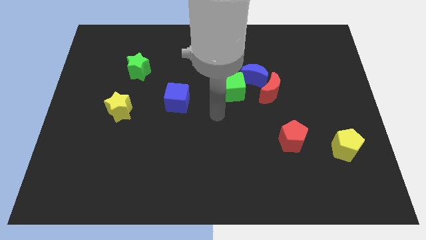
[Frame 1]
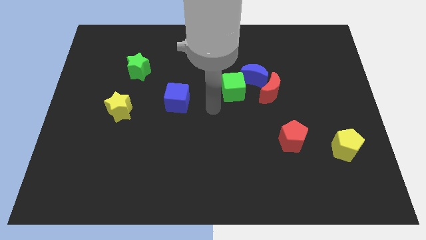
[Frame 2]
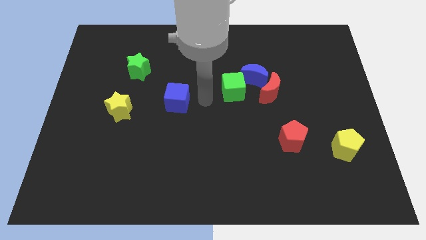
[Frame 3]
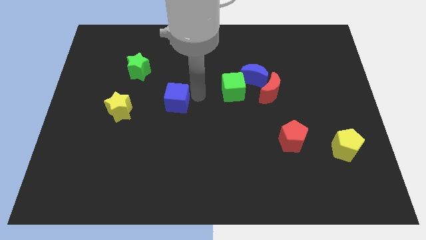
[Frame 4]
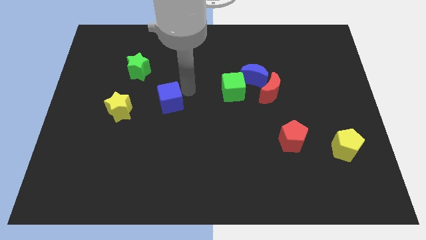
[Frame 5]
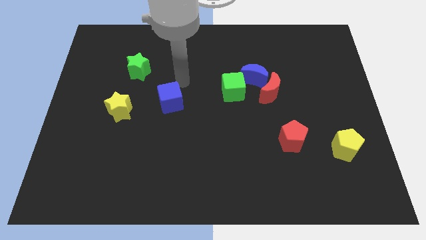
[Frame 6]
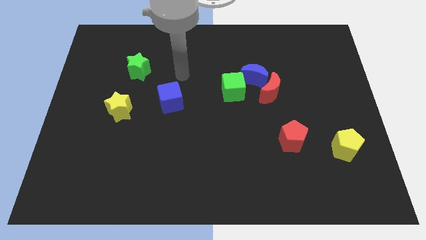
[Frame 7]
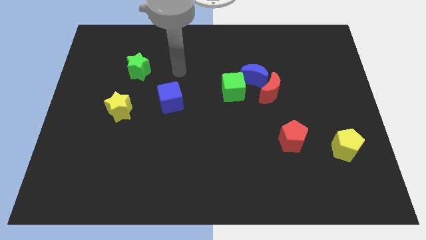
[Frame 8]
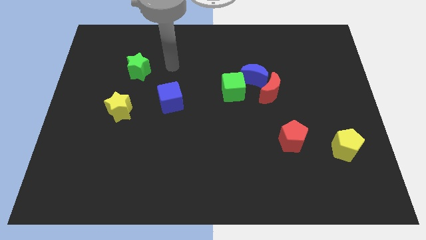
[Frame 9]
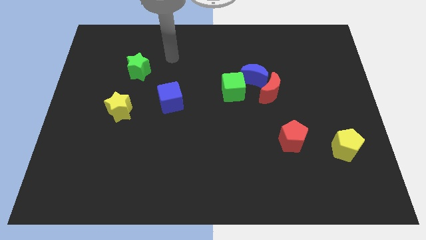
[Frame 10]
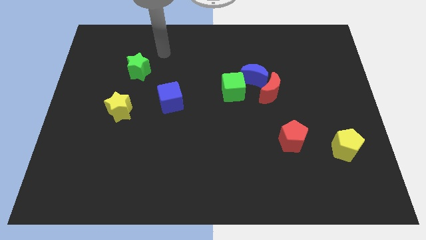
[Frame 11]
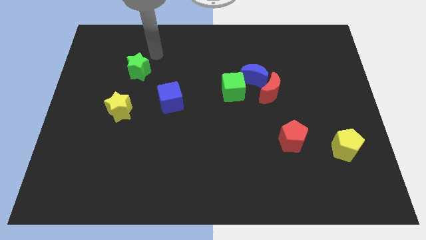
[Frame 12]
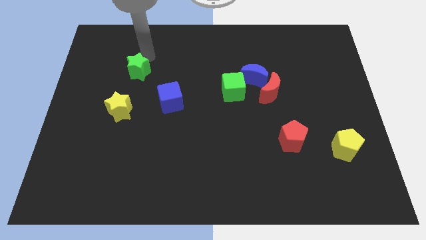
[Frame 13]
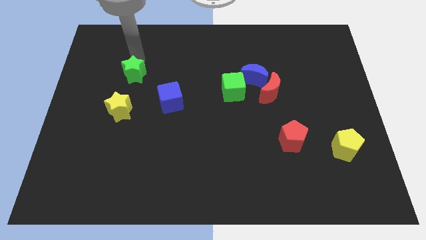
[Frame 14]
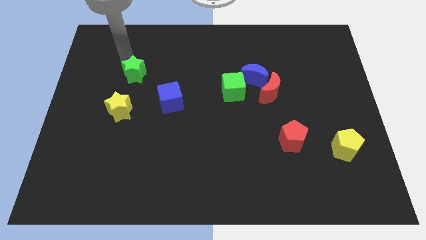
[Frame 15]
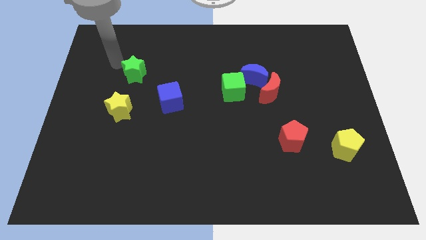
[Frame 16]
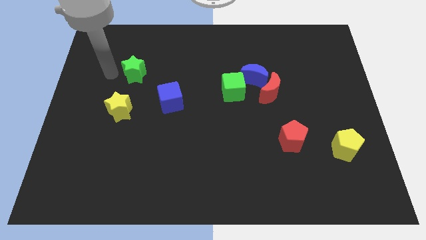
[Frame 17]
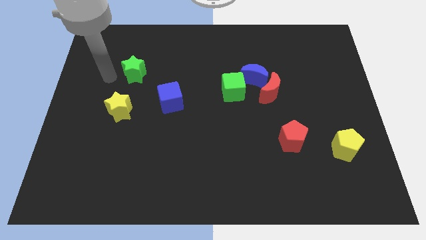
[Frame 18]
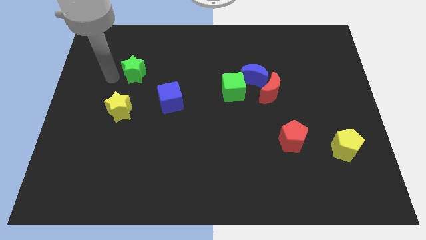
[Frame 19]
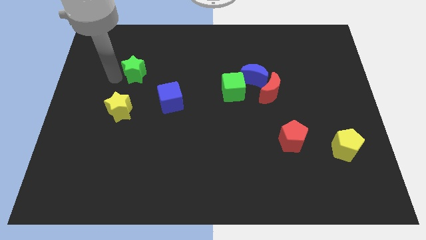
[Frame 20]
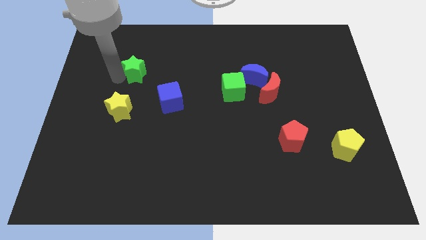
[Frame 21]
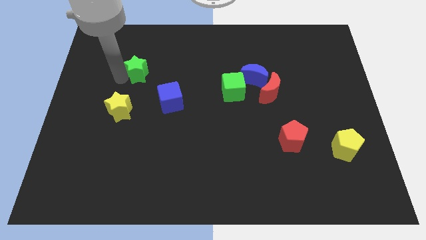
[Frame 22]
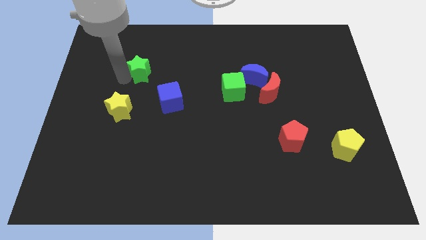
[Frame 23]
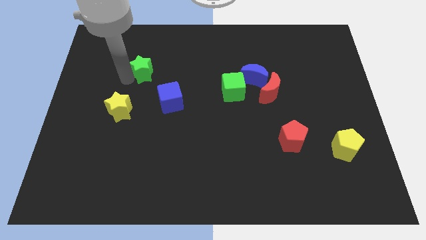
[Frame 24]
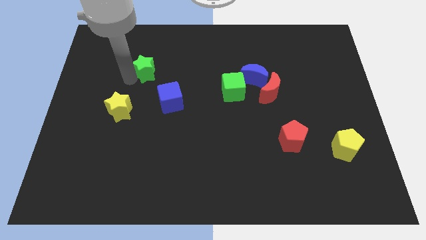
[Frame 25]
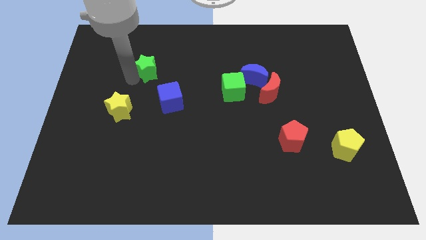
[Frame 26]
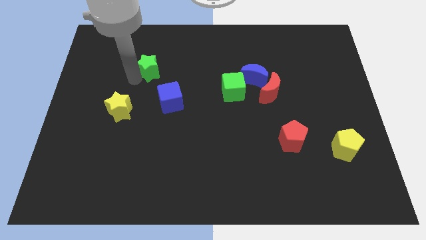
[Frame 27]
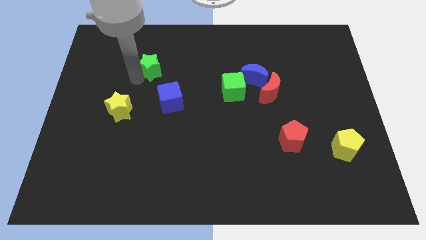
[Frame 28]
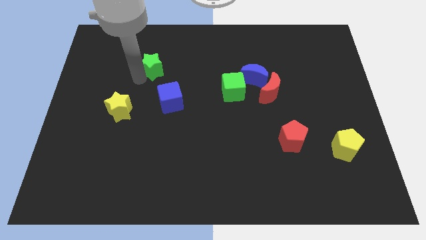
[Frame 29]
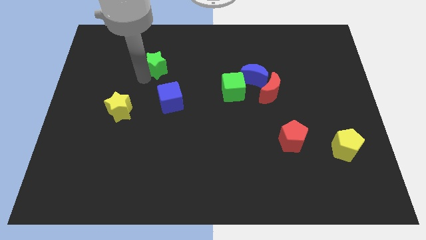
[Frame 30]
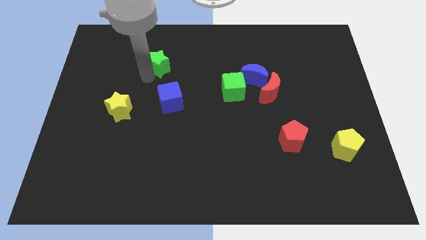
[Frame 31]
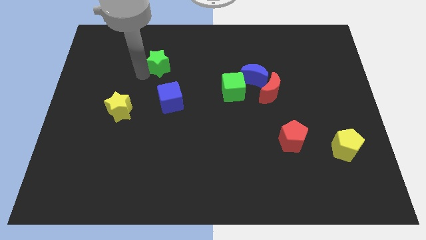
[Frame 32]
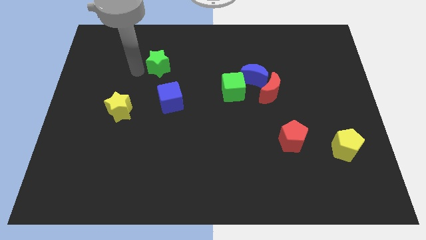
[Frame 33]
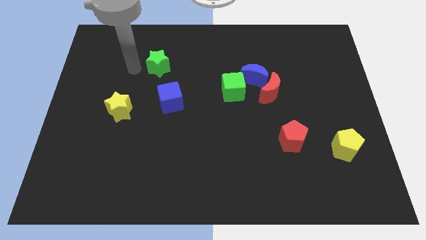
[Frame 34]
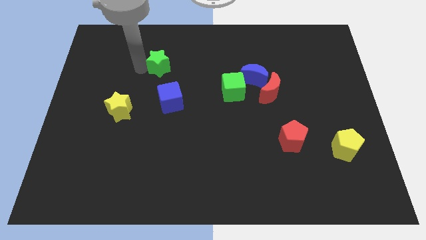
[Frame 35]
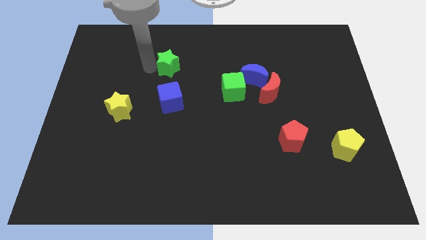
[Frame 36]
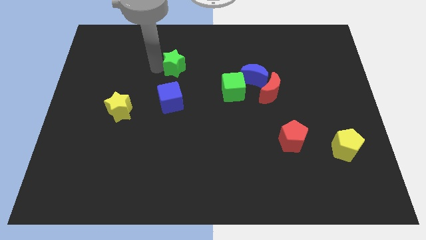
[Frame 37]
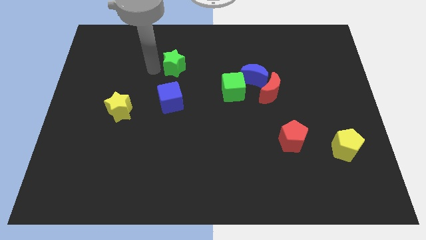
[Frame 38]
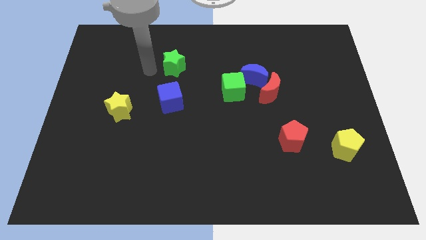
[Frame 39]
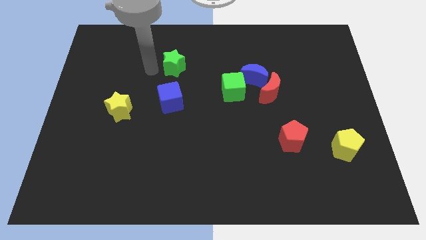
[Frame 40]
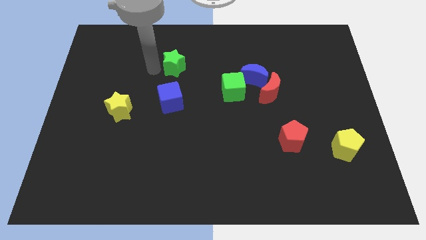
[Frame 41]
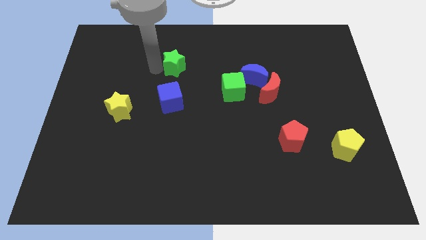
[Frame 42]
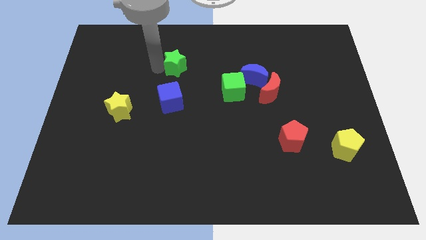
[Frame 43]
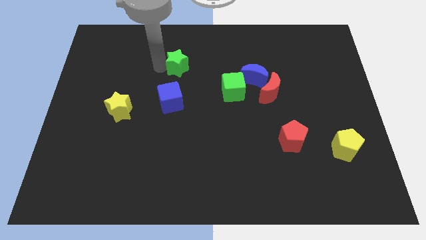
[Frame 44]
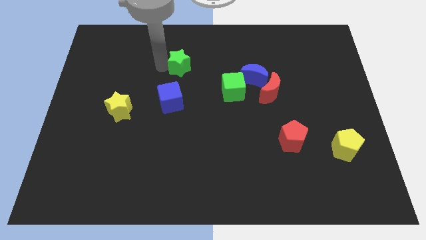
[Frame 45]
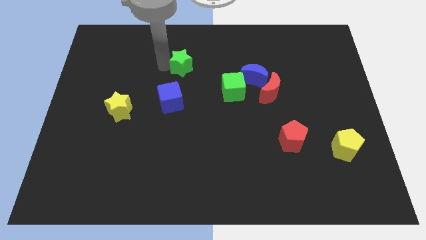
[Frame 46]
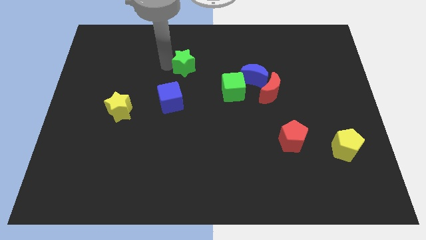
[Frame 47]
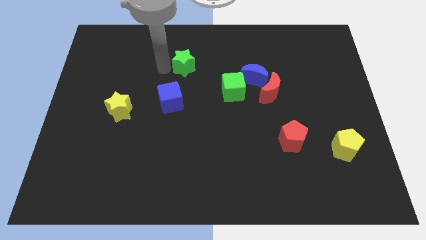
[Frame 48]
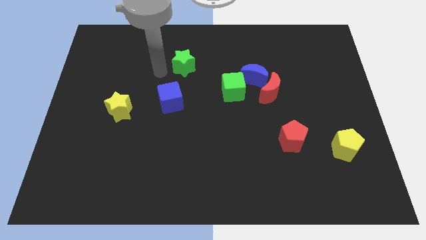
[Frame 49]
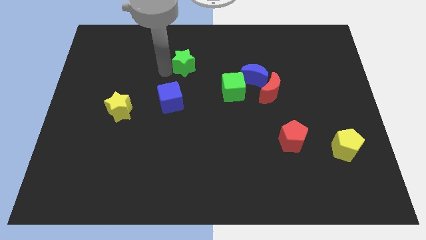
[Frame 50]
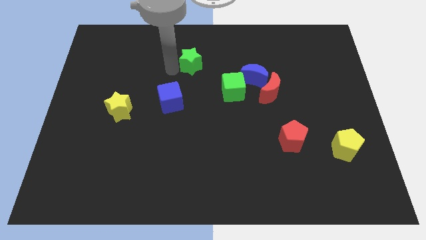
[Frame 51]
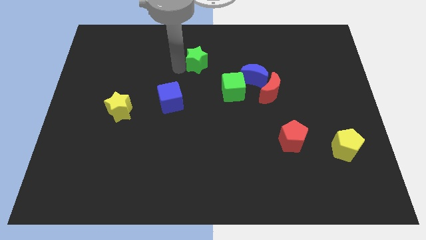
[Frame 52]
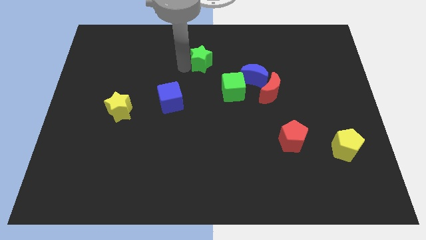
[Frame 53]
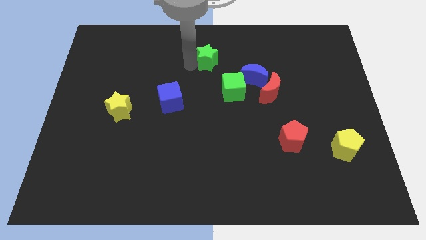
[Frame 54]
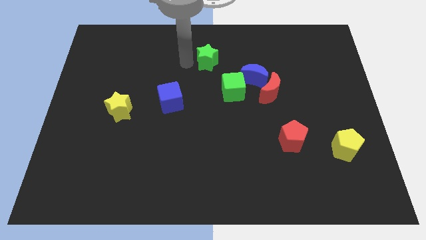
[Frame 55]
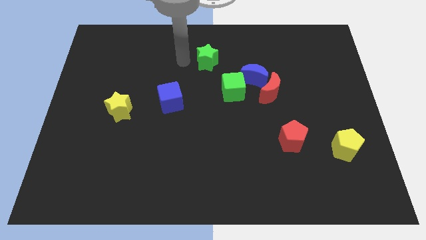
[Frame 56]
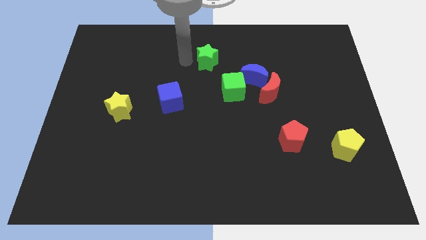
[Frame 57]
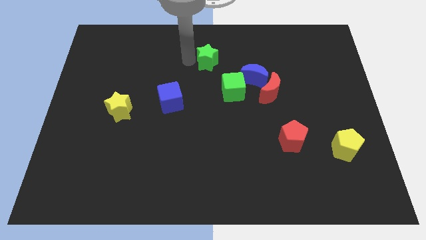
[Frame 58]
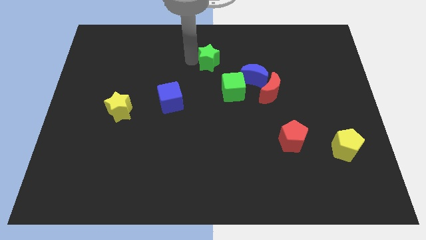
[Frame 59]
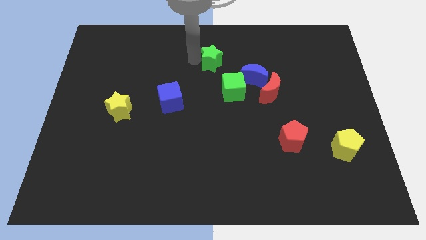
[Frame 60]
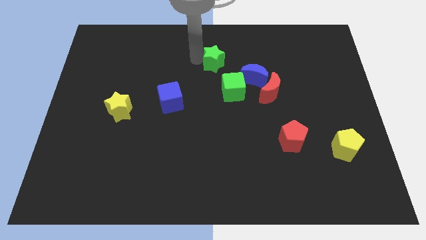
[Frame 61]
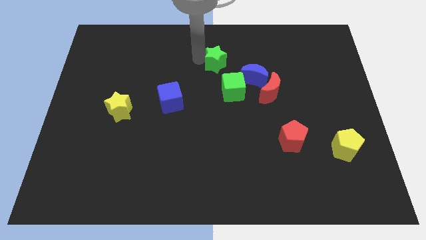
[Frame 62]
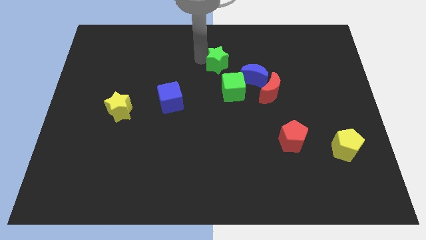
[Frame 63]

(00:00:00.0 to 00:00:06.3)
move the green star to the right

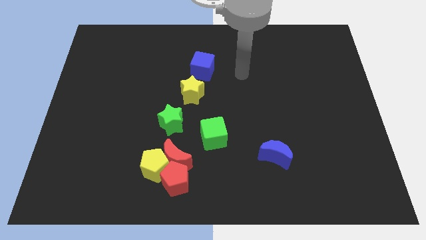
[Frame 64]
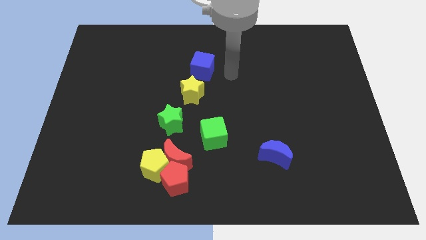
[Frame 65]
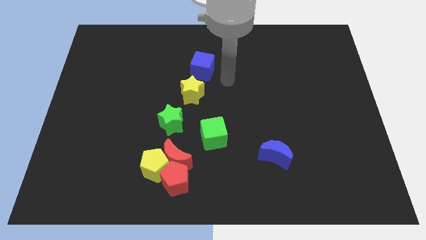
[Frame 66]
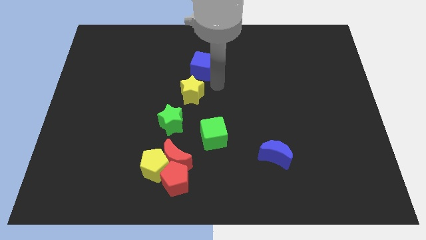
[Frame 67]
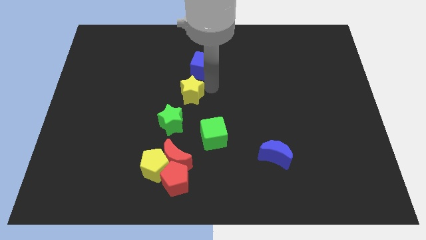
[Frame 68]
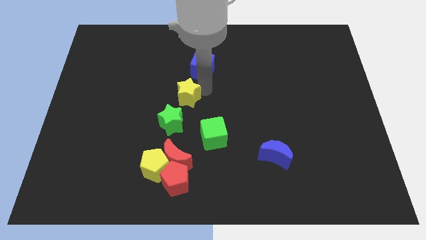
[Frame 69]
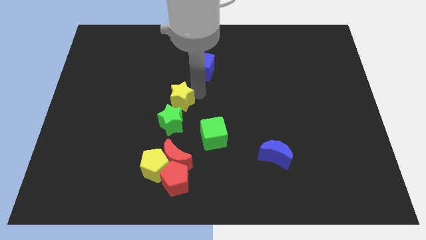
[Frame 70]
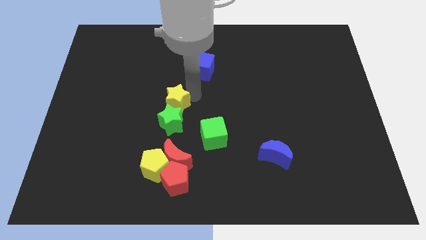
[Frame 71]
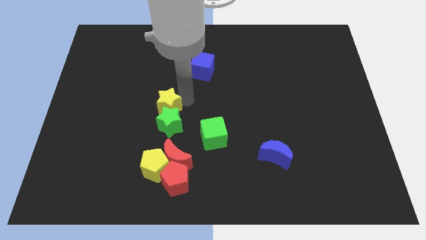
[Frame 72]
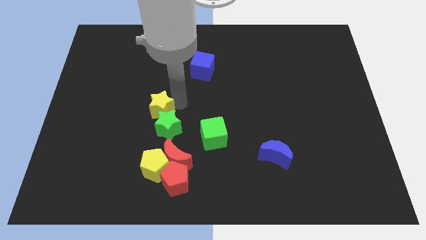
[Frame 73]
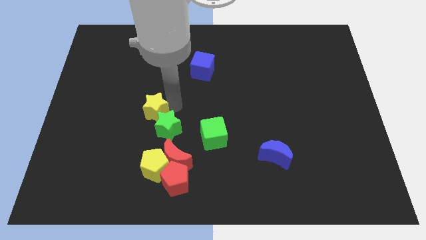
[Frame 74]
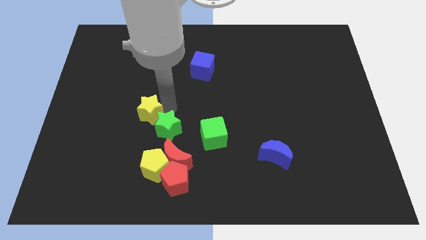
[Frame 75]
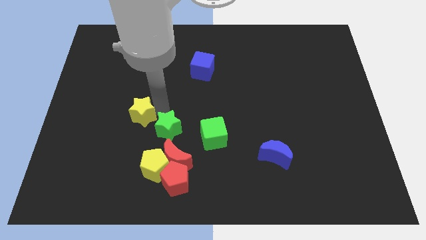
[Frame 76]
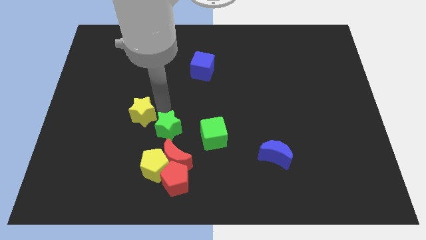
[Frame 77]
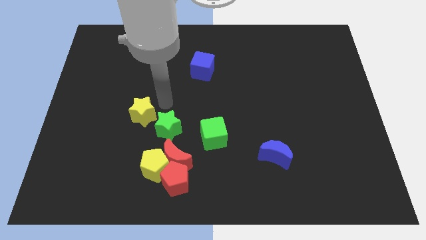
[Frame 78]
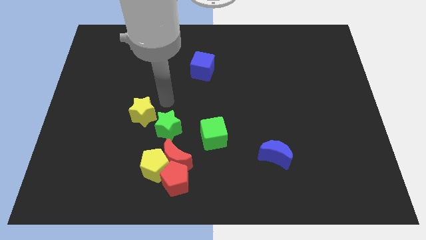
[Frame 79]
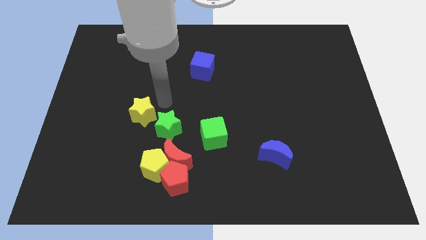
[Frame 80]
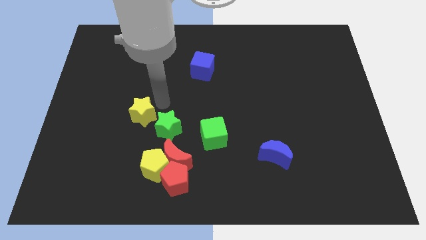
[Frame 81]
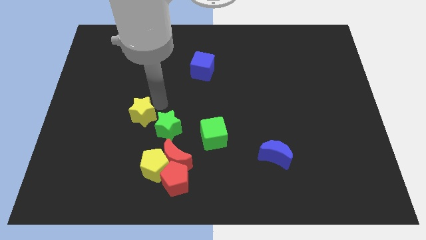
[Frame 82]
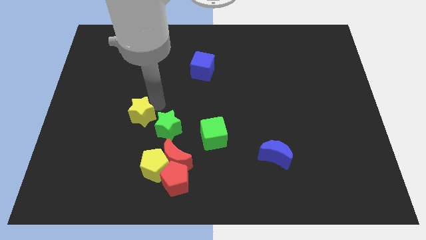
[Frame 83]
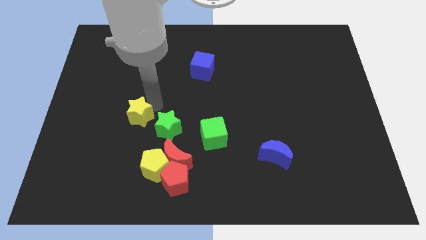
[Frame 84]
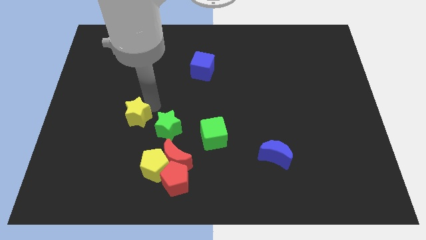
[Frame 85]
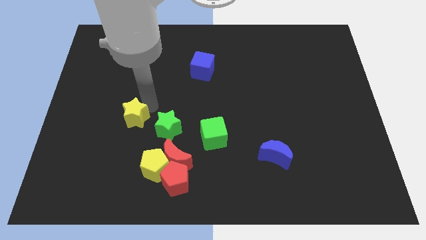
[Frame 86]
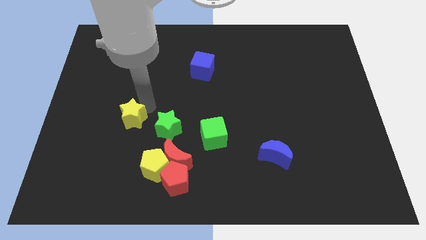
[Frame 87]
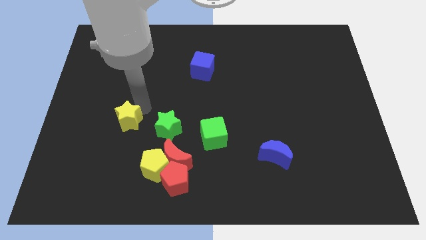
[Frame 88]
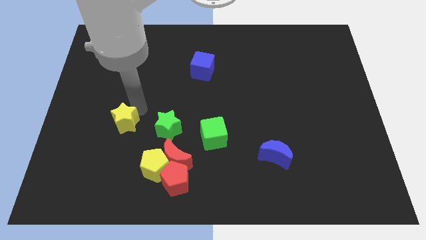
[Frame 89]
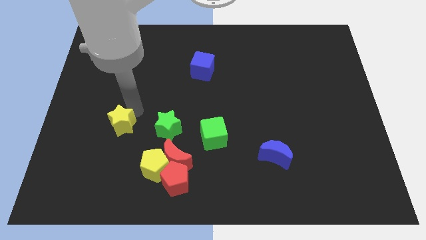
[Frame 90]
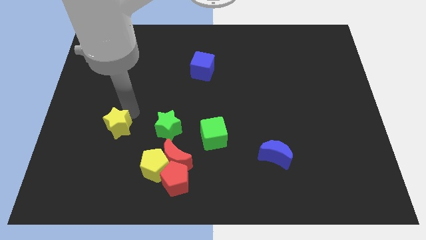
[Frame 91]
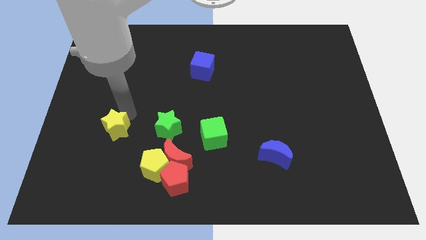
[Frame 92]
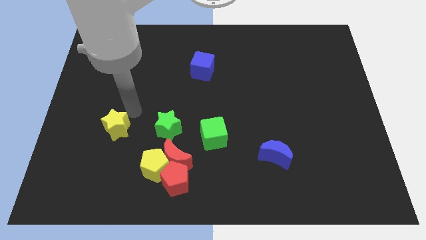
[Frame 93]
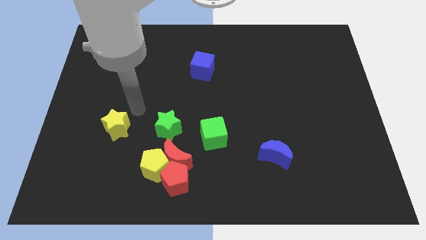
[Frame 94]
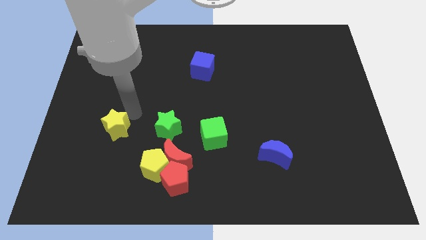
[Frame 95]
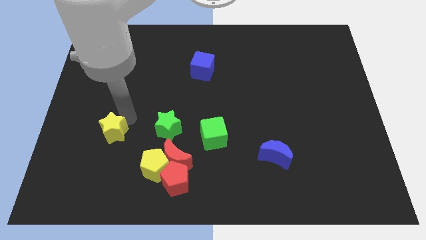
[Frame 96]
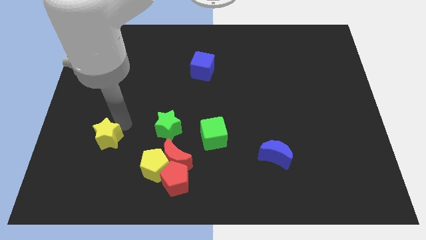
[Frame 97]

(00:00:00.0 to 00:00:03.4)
move the yellow star diagonally down and to the left
